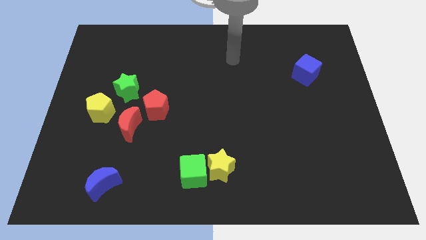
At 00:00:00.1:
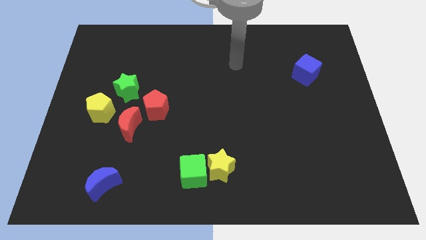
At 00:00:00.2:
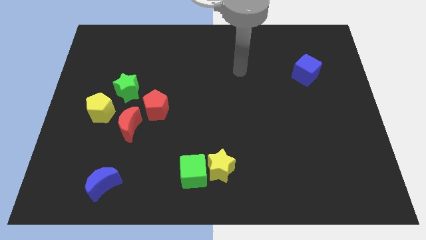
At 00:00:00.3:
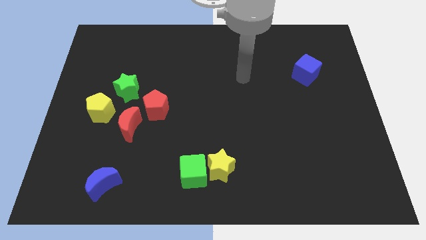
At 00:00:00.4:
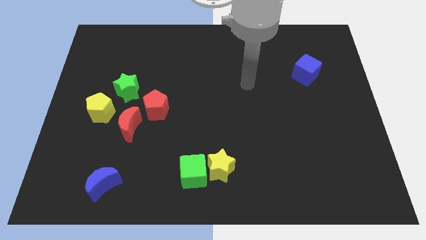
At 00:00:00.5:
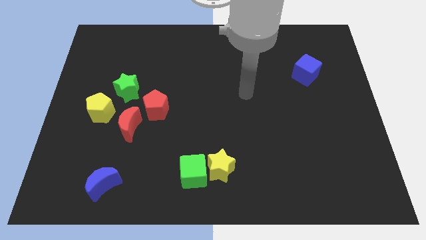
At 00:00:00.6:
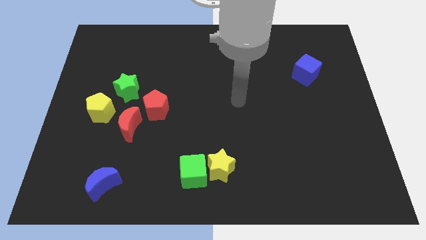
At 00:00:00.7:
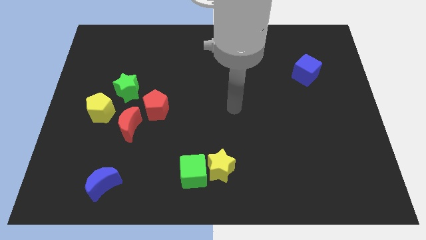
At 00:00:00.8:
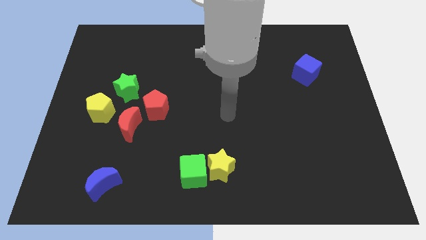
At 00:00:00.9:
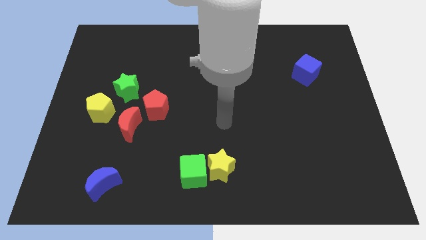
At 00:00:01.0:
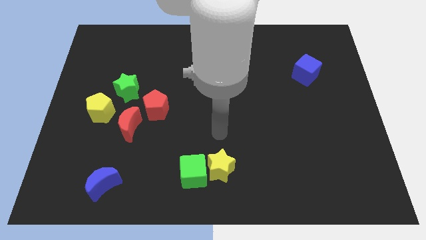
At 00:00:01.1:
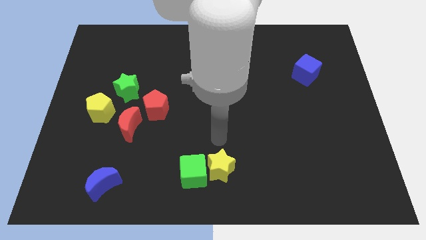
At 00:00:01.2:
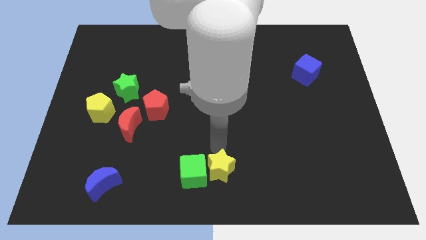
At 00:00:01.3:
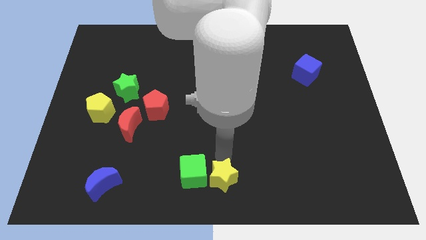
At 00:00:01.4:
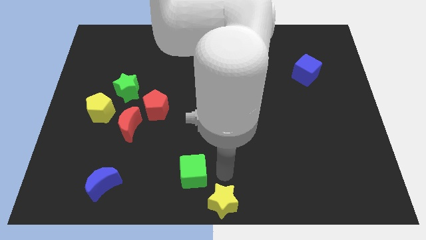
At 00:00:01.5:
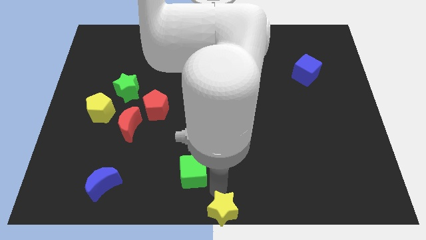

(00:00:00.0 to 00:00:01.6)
separate the green cube from the yellow star

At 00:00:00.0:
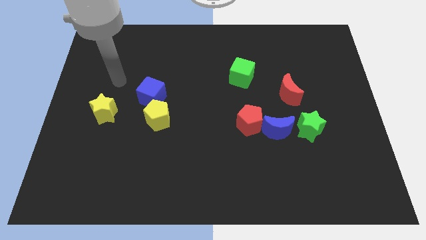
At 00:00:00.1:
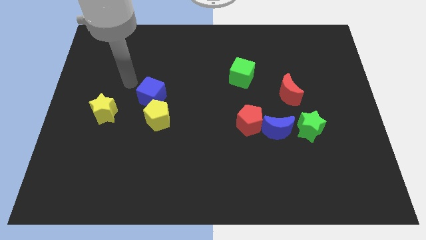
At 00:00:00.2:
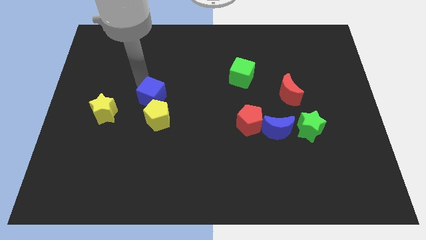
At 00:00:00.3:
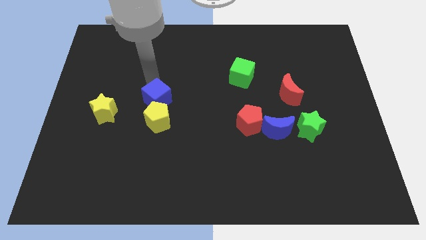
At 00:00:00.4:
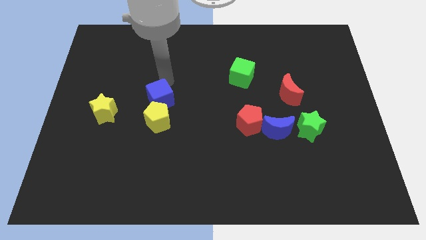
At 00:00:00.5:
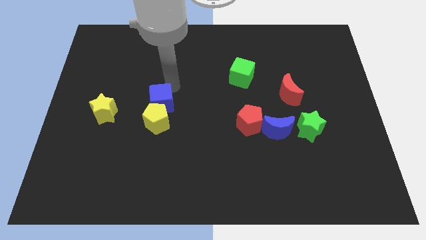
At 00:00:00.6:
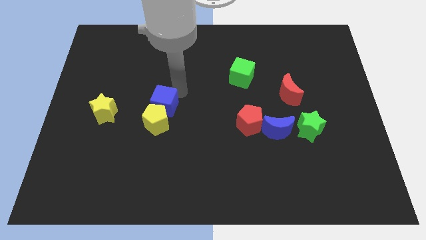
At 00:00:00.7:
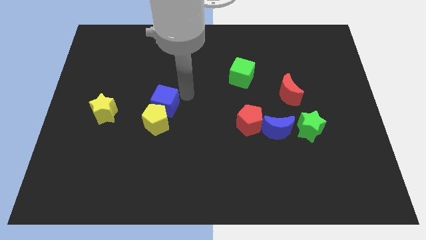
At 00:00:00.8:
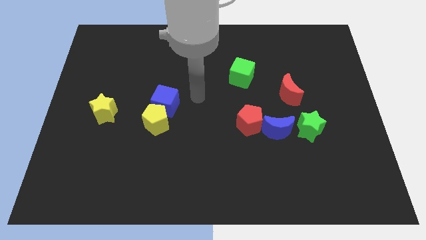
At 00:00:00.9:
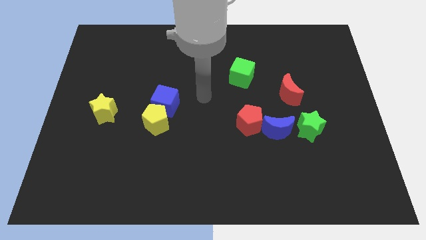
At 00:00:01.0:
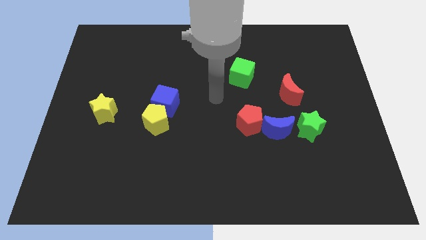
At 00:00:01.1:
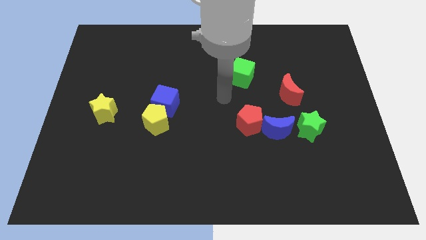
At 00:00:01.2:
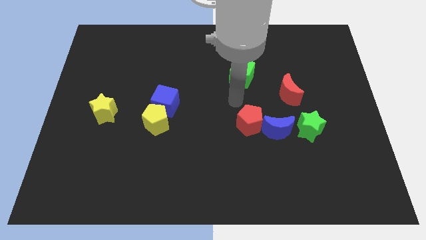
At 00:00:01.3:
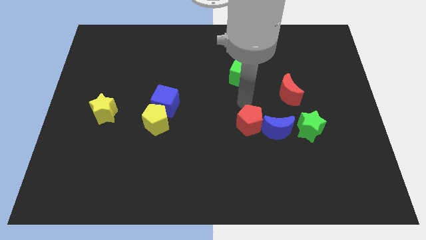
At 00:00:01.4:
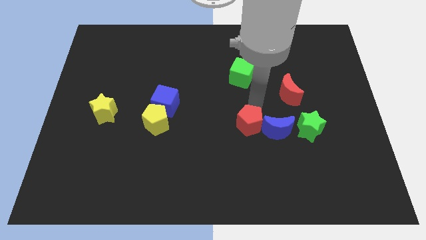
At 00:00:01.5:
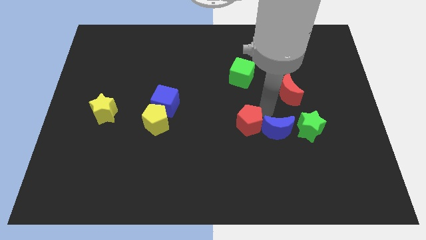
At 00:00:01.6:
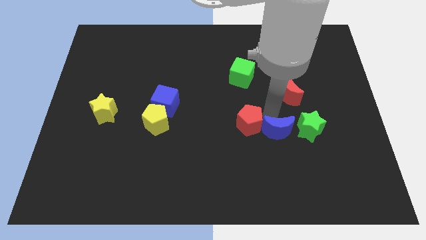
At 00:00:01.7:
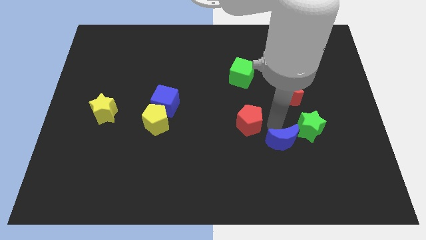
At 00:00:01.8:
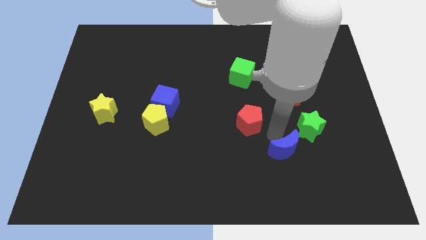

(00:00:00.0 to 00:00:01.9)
separate the red pentagon from the blue moon

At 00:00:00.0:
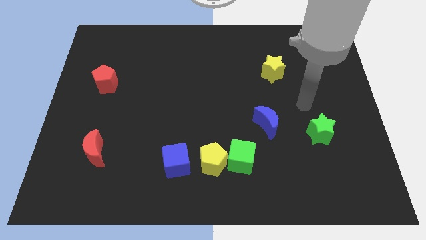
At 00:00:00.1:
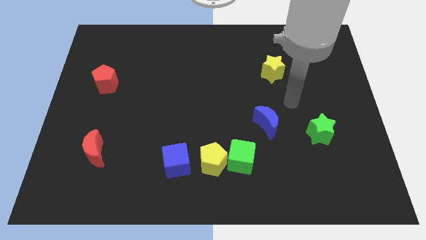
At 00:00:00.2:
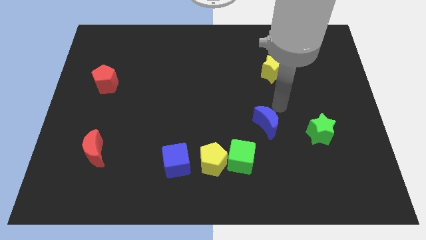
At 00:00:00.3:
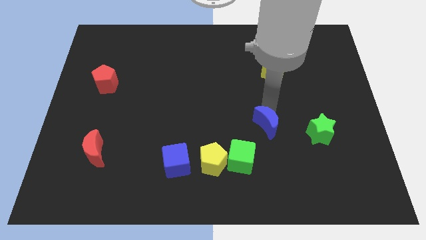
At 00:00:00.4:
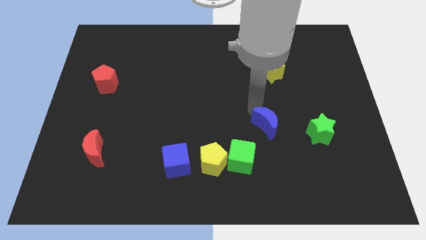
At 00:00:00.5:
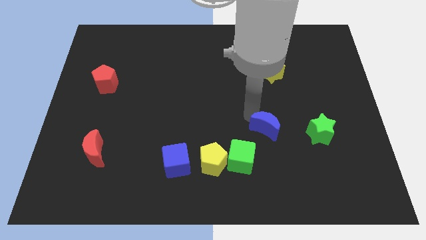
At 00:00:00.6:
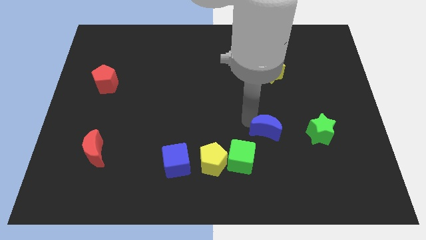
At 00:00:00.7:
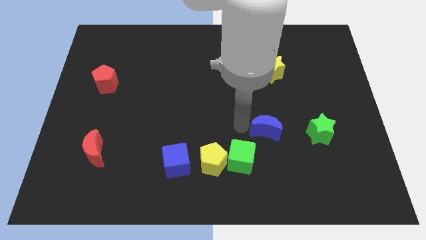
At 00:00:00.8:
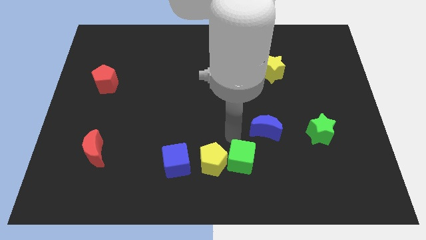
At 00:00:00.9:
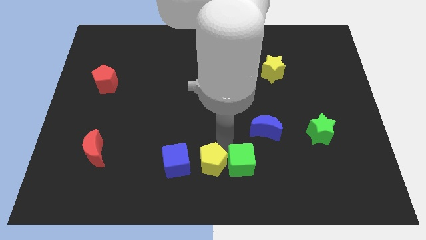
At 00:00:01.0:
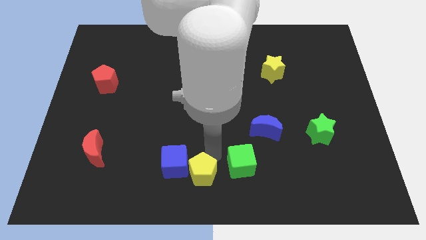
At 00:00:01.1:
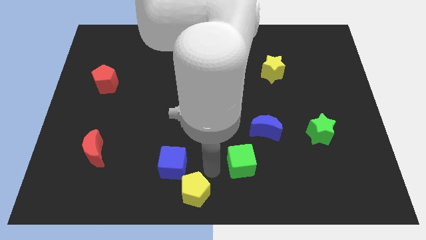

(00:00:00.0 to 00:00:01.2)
separate the green cube from the yellow pentagon

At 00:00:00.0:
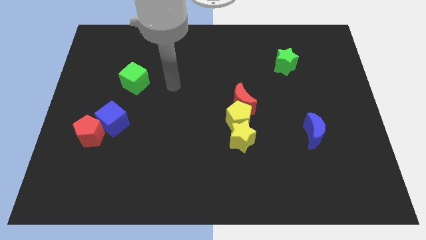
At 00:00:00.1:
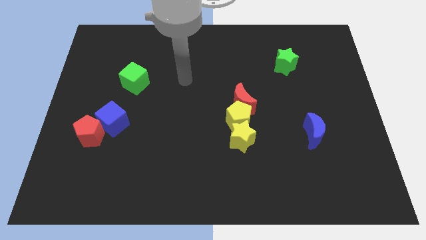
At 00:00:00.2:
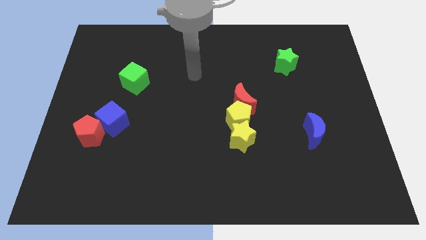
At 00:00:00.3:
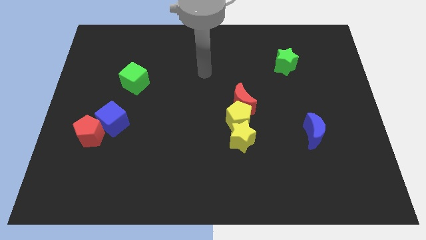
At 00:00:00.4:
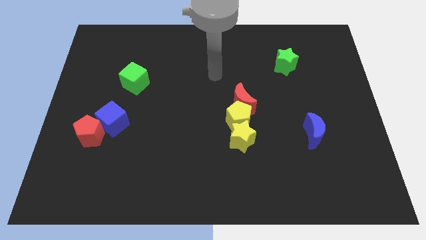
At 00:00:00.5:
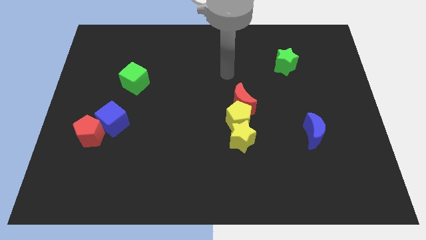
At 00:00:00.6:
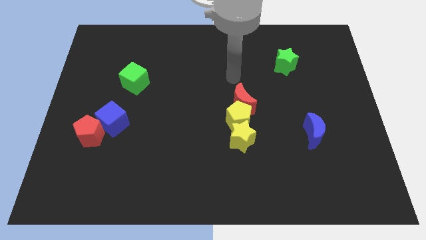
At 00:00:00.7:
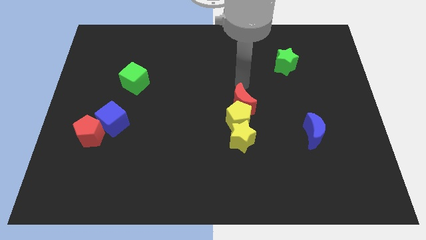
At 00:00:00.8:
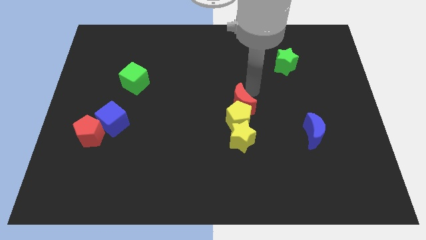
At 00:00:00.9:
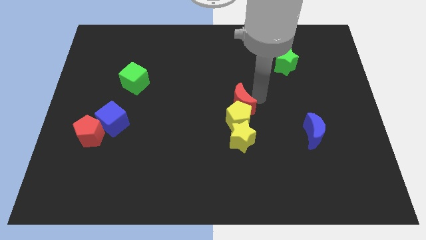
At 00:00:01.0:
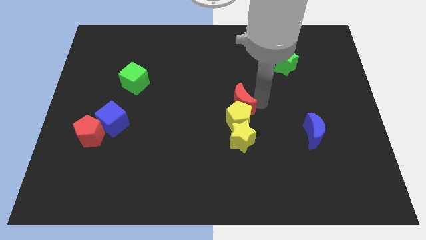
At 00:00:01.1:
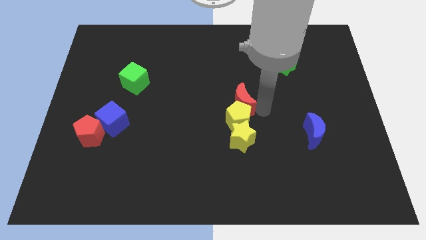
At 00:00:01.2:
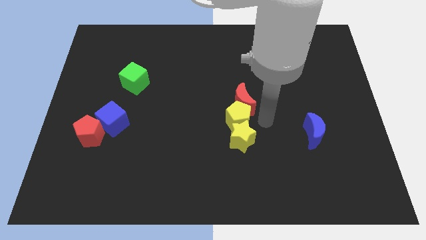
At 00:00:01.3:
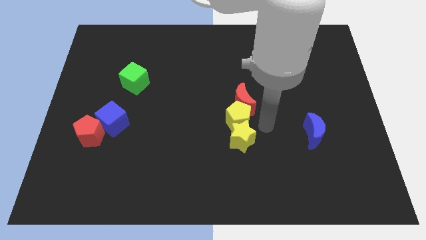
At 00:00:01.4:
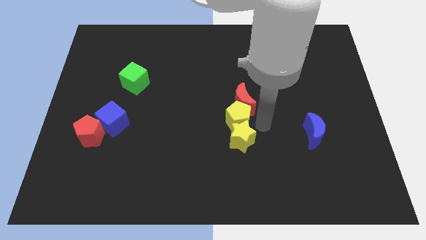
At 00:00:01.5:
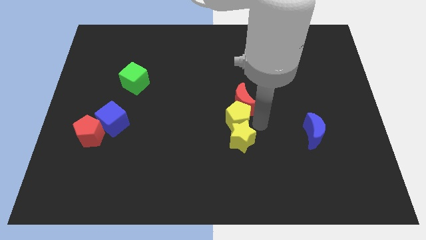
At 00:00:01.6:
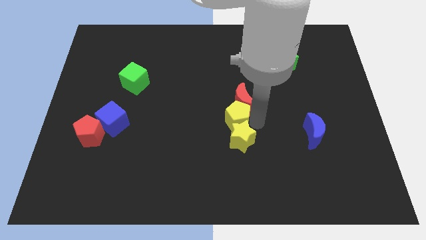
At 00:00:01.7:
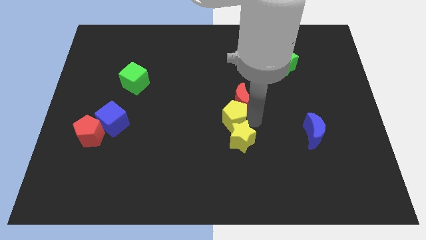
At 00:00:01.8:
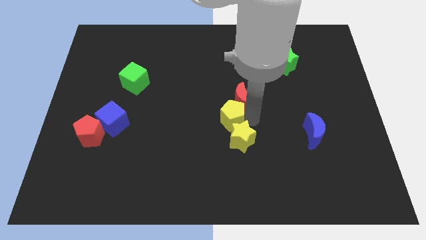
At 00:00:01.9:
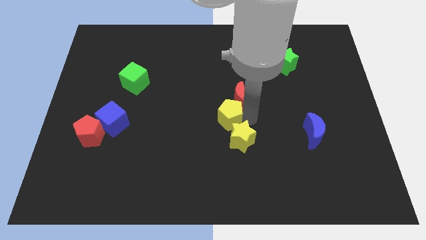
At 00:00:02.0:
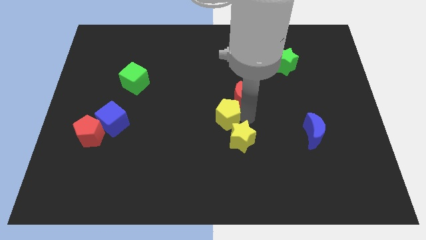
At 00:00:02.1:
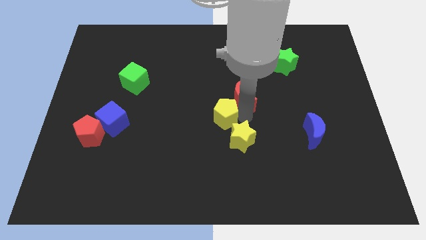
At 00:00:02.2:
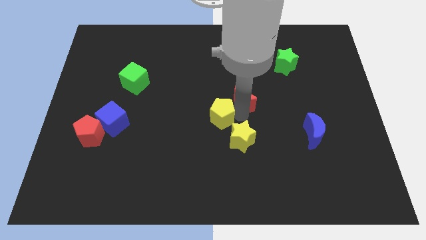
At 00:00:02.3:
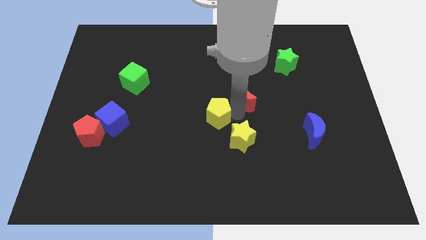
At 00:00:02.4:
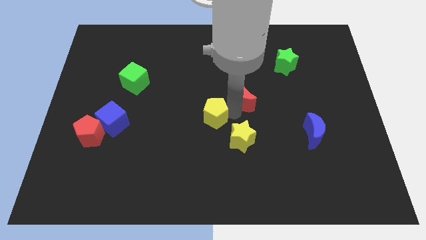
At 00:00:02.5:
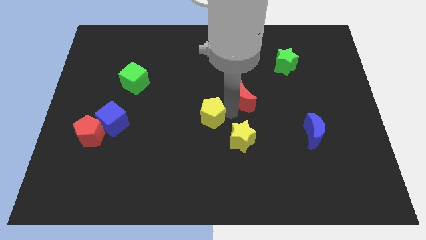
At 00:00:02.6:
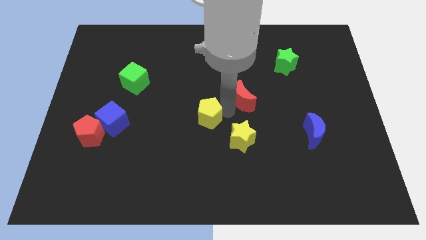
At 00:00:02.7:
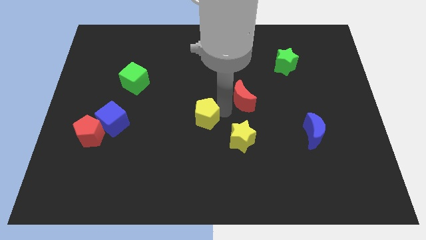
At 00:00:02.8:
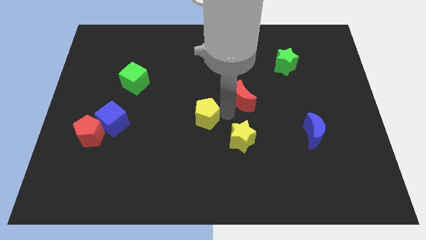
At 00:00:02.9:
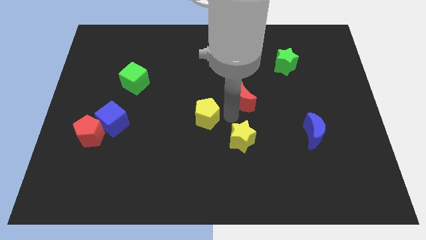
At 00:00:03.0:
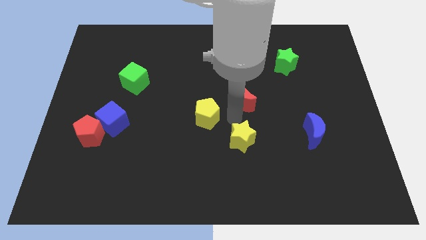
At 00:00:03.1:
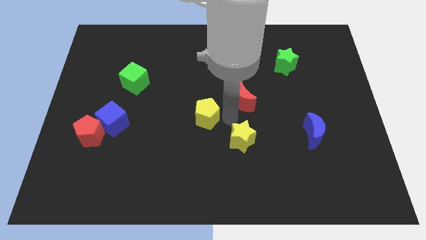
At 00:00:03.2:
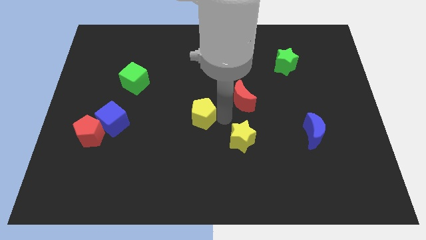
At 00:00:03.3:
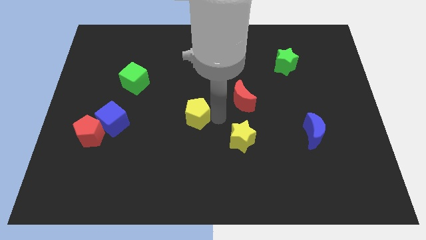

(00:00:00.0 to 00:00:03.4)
pull the yellow pentagon apart from the red moon and yellow star

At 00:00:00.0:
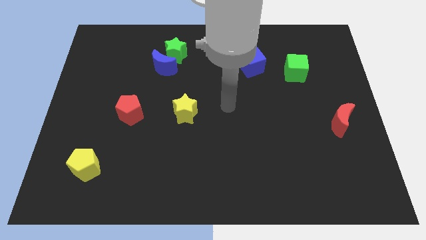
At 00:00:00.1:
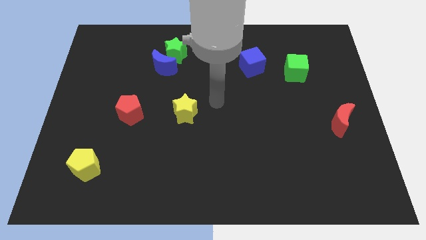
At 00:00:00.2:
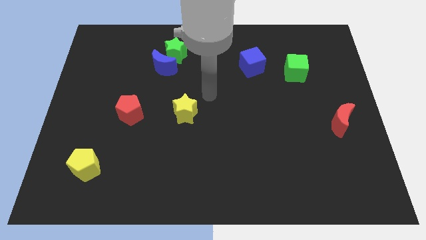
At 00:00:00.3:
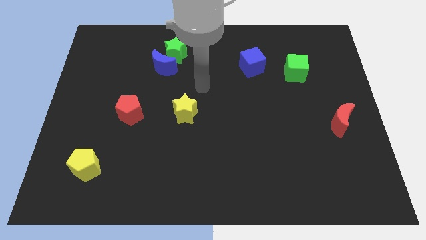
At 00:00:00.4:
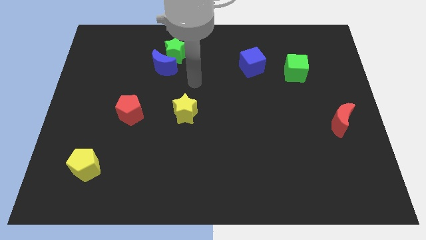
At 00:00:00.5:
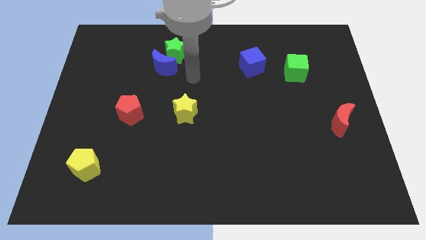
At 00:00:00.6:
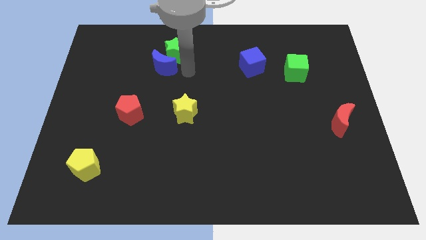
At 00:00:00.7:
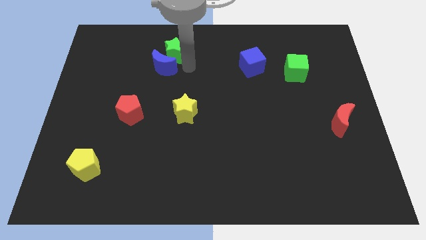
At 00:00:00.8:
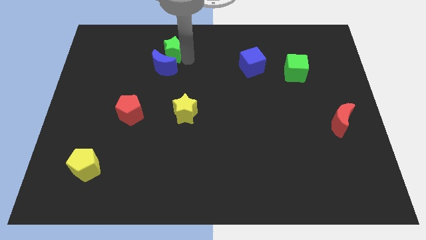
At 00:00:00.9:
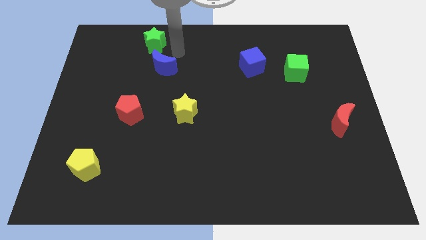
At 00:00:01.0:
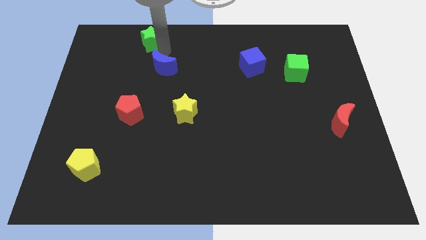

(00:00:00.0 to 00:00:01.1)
pull the blue moon apart from the green star
